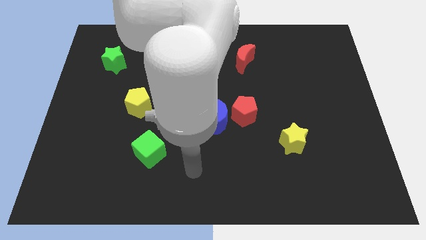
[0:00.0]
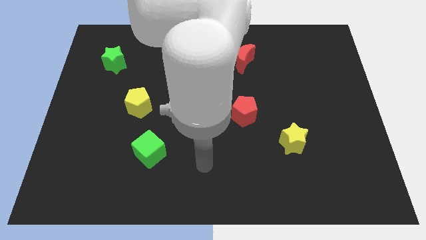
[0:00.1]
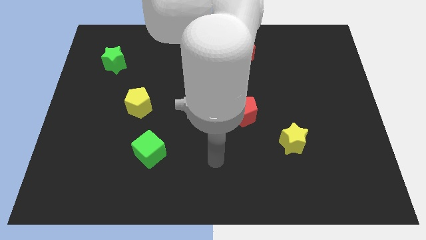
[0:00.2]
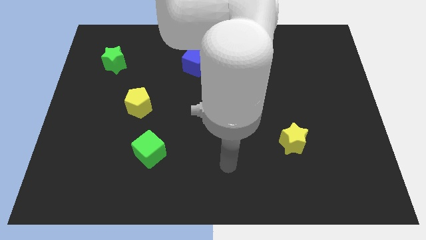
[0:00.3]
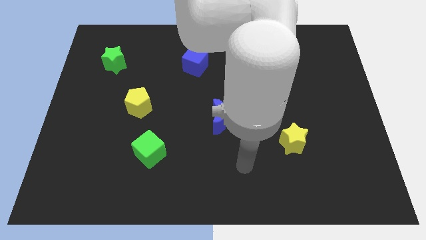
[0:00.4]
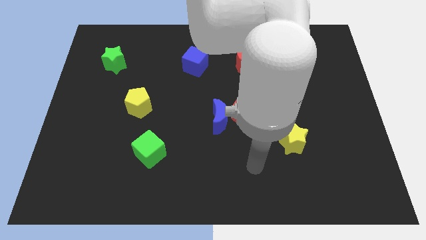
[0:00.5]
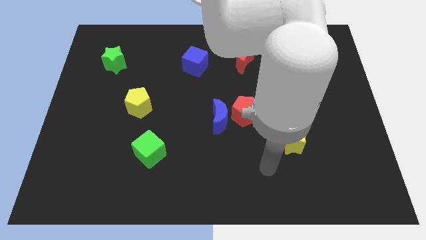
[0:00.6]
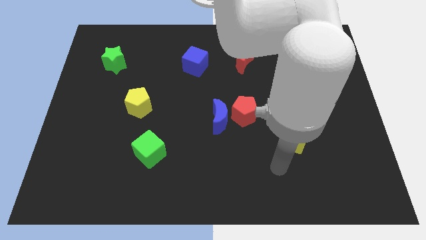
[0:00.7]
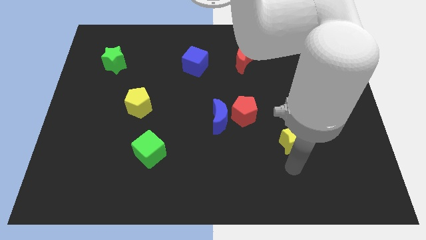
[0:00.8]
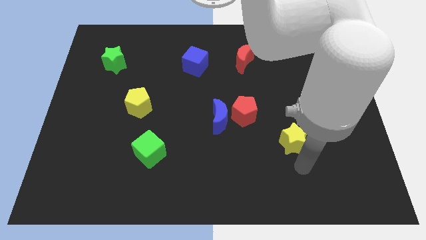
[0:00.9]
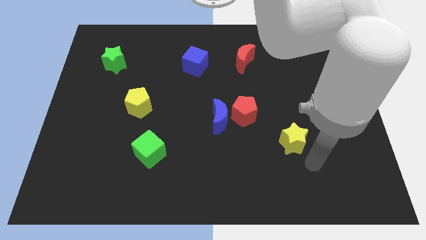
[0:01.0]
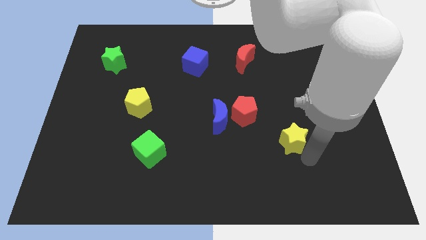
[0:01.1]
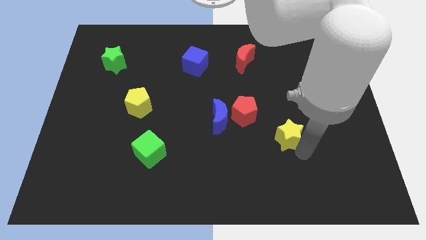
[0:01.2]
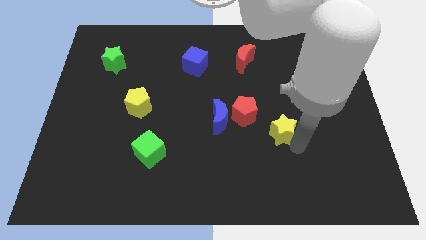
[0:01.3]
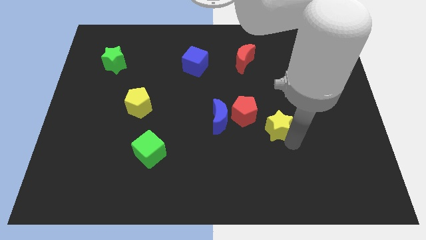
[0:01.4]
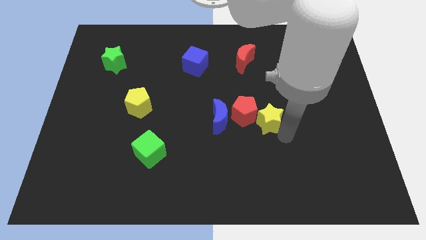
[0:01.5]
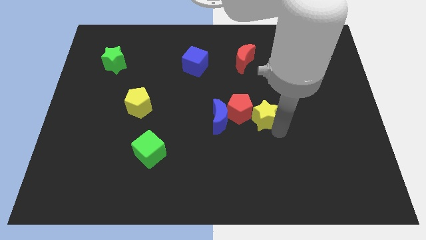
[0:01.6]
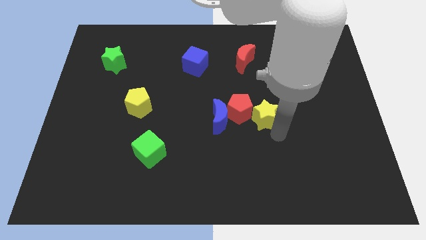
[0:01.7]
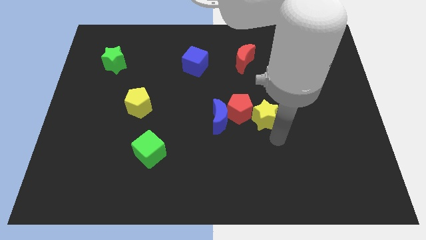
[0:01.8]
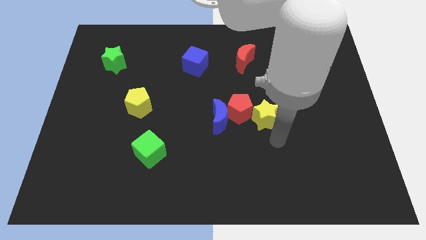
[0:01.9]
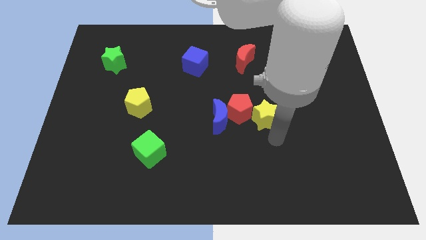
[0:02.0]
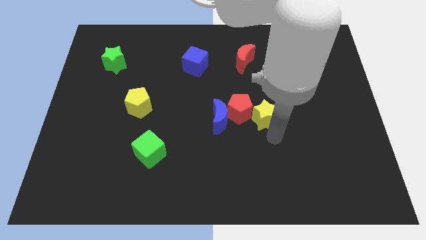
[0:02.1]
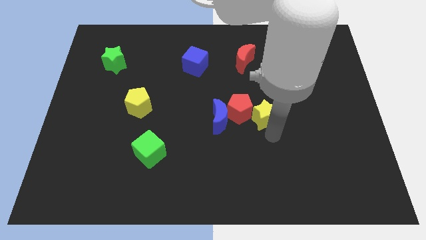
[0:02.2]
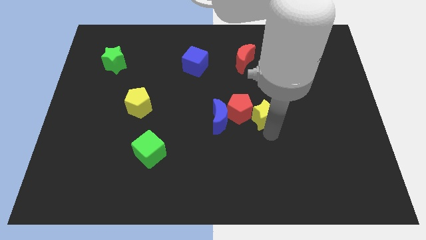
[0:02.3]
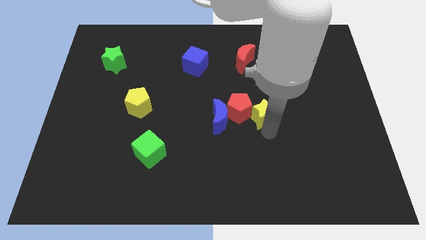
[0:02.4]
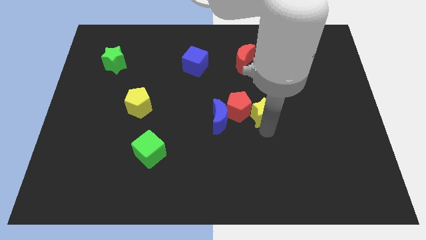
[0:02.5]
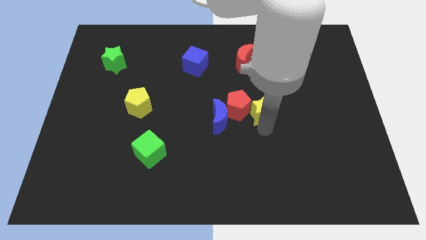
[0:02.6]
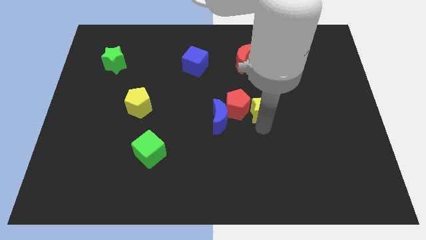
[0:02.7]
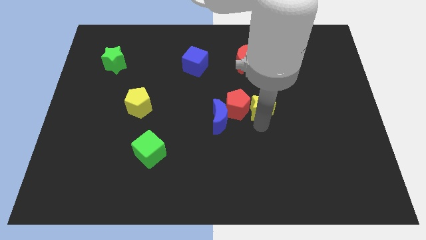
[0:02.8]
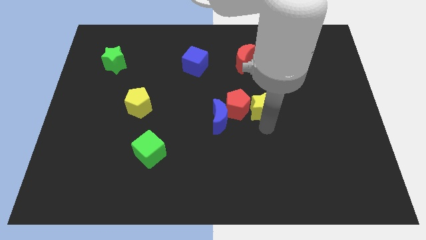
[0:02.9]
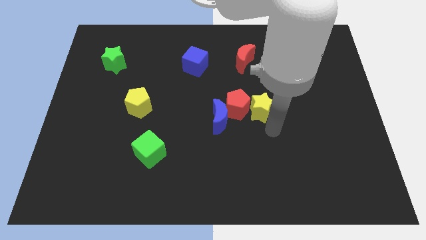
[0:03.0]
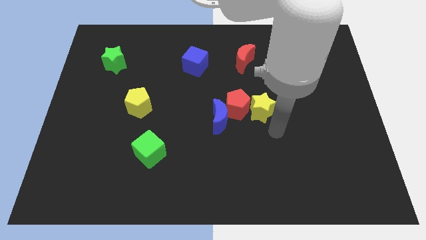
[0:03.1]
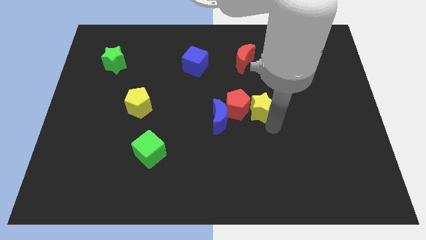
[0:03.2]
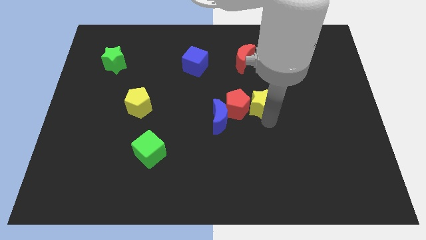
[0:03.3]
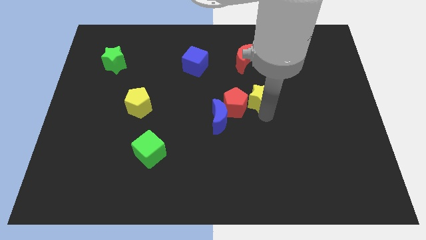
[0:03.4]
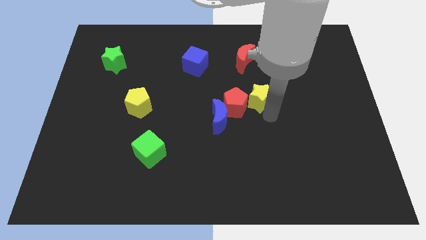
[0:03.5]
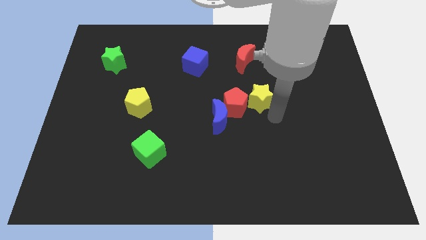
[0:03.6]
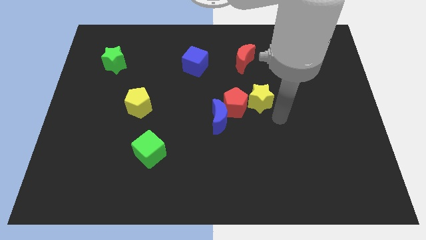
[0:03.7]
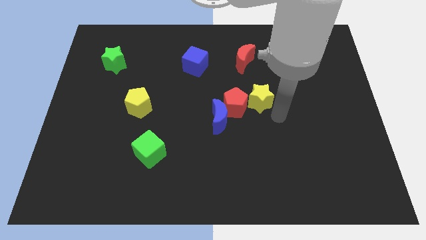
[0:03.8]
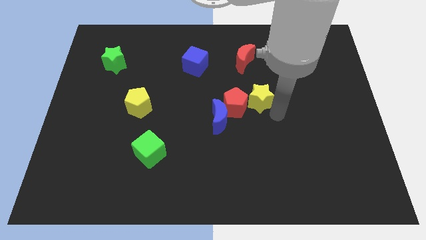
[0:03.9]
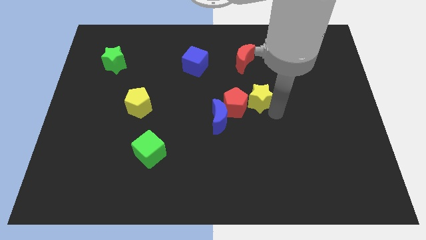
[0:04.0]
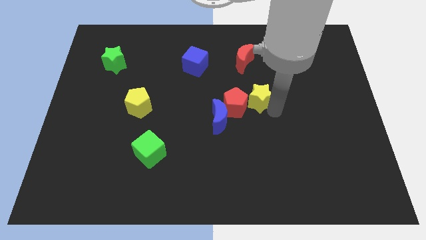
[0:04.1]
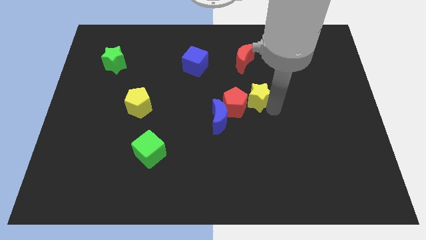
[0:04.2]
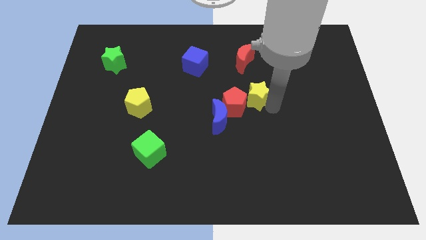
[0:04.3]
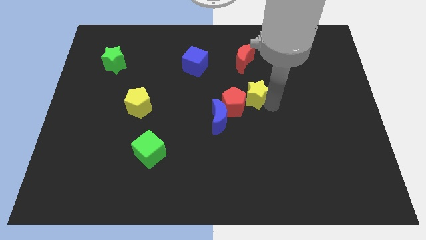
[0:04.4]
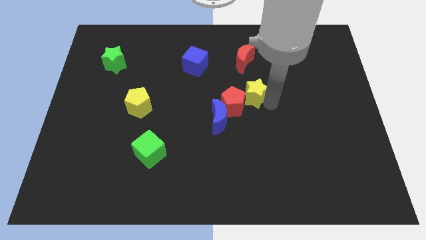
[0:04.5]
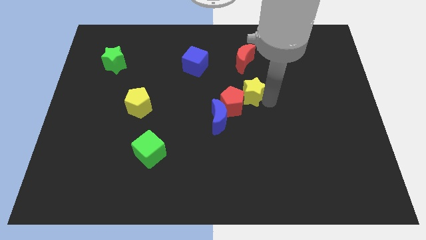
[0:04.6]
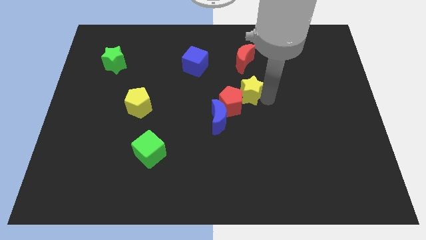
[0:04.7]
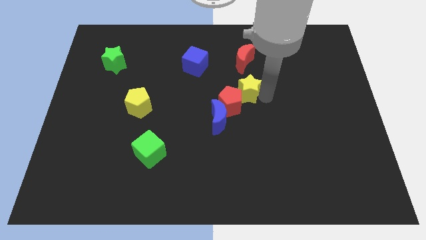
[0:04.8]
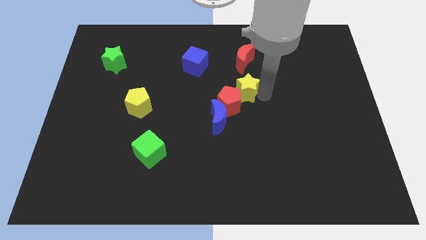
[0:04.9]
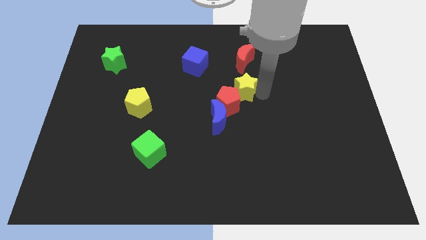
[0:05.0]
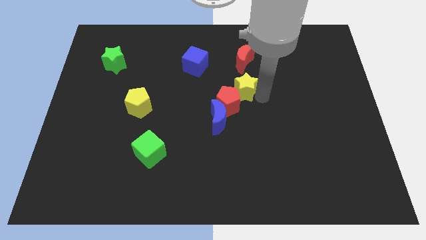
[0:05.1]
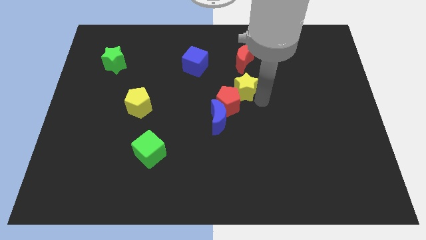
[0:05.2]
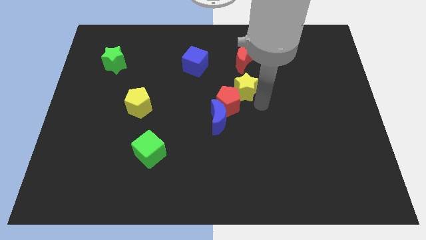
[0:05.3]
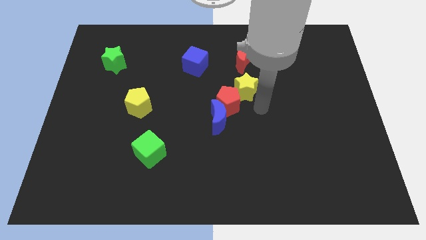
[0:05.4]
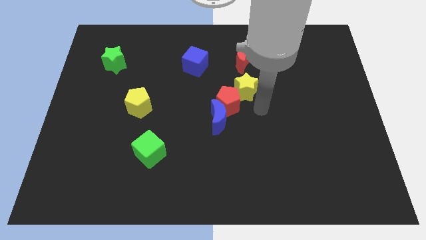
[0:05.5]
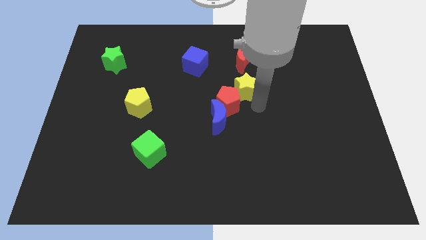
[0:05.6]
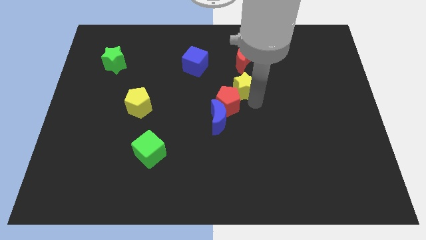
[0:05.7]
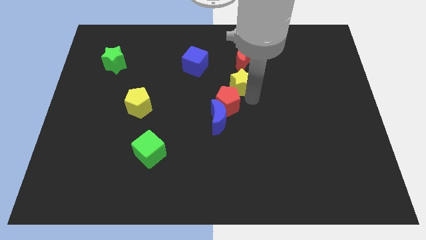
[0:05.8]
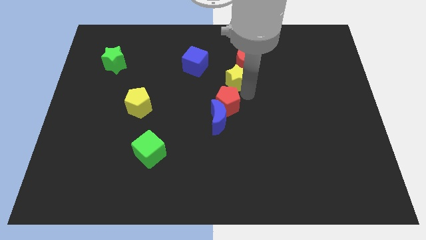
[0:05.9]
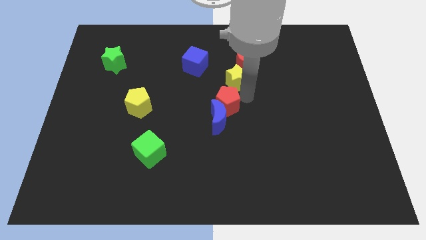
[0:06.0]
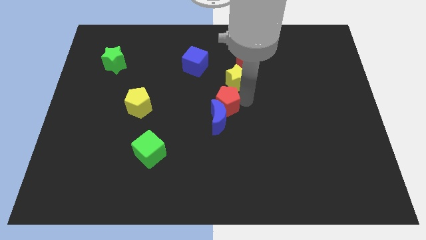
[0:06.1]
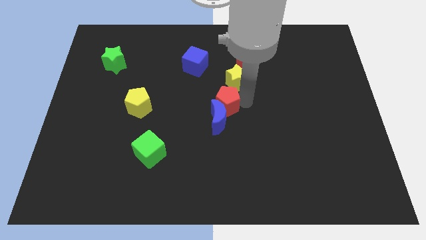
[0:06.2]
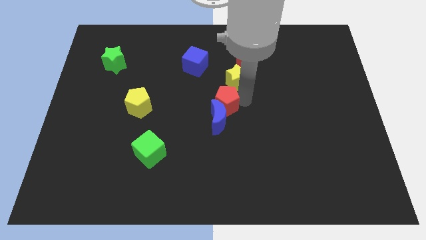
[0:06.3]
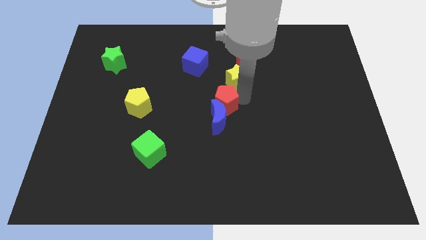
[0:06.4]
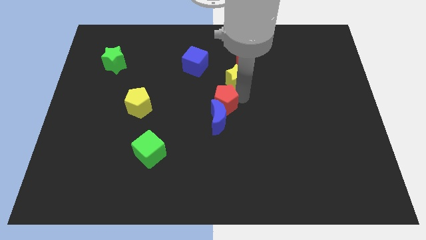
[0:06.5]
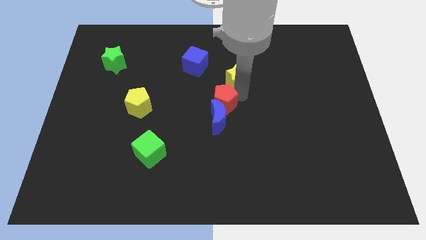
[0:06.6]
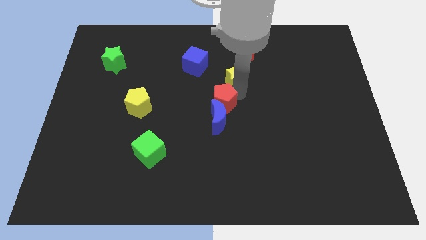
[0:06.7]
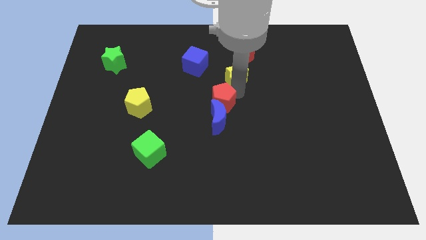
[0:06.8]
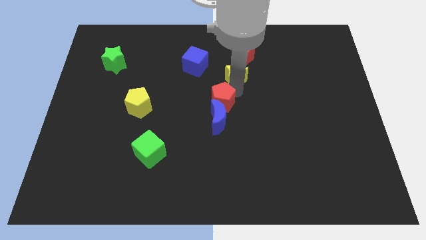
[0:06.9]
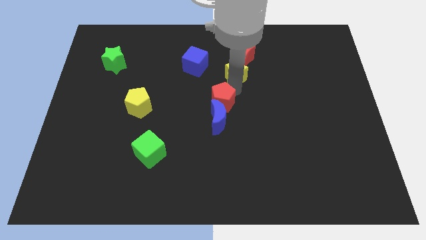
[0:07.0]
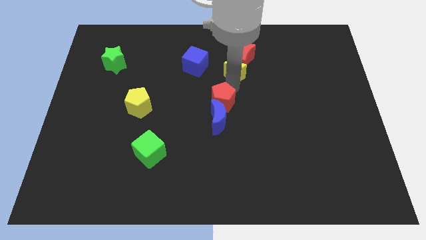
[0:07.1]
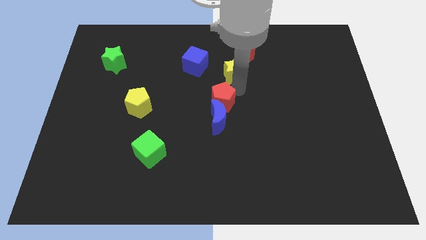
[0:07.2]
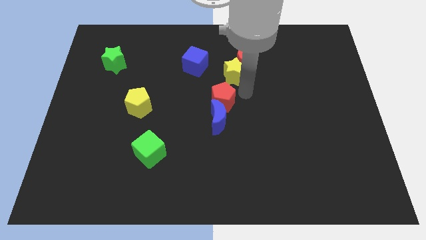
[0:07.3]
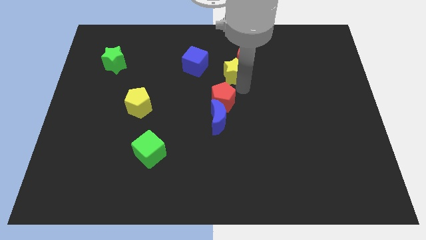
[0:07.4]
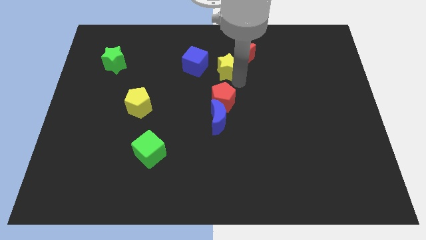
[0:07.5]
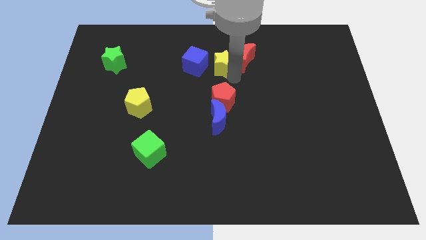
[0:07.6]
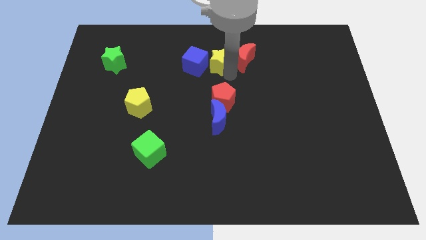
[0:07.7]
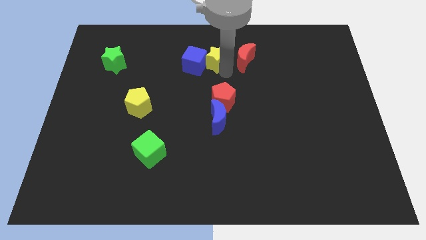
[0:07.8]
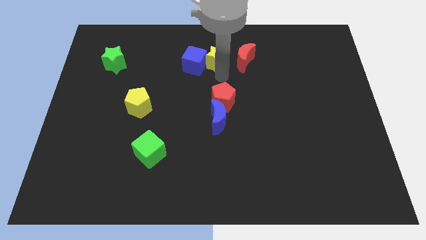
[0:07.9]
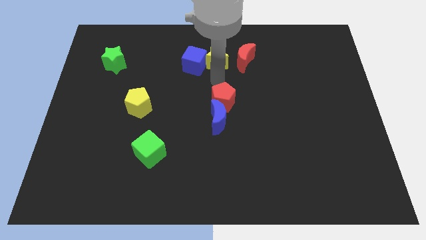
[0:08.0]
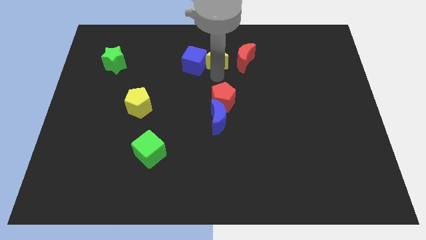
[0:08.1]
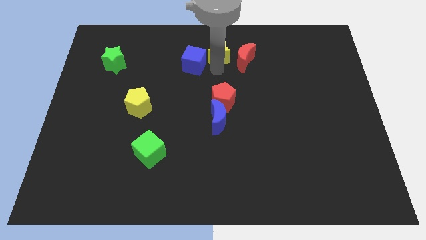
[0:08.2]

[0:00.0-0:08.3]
push the yellow star to the towards your base
